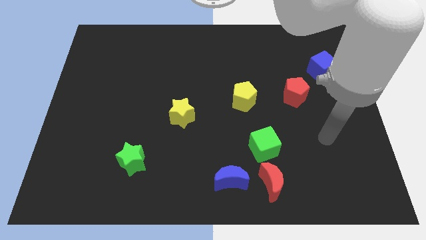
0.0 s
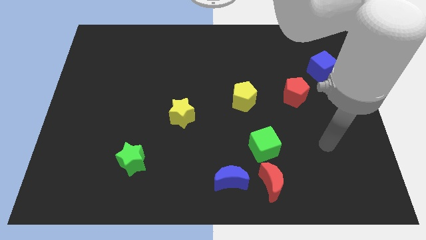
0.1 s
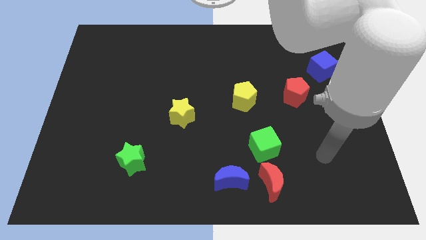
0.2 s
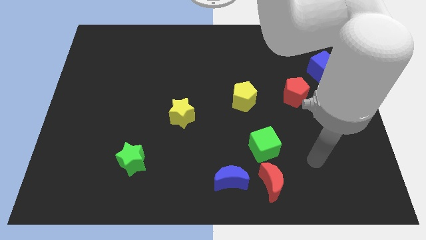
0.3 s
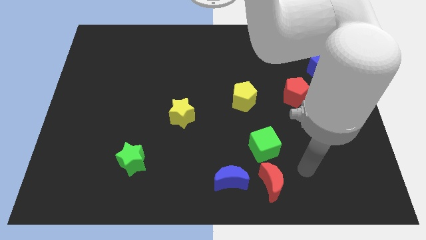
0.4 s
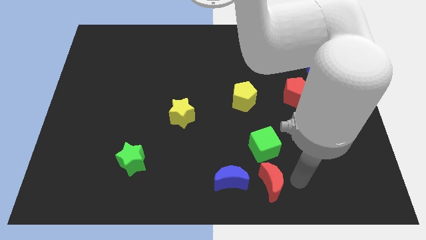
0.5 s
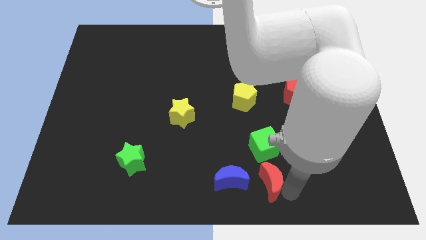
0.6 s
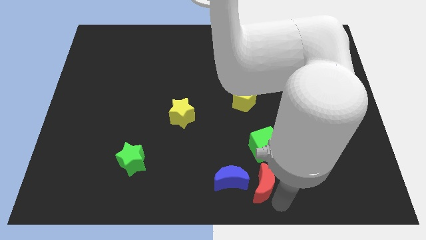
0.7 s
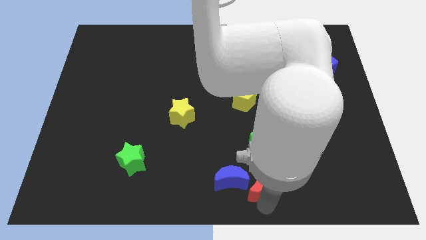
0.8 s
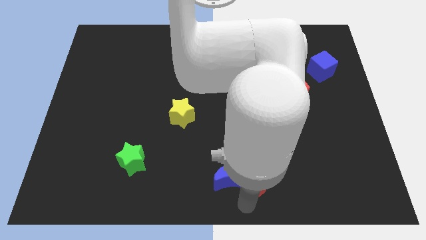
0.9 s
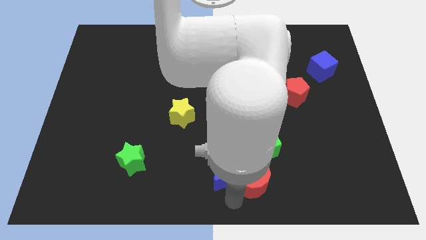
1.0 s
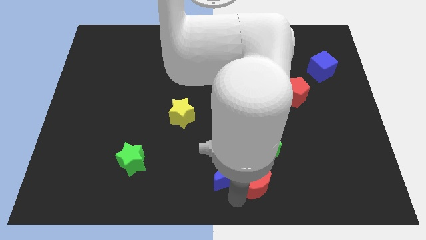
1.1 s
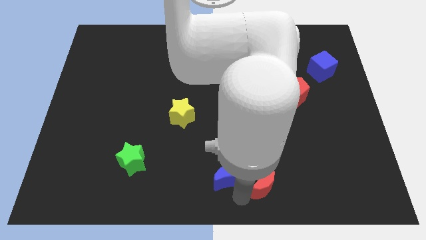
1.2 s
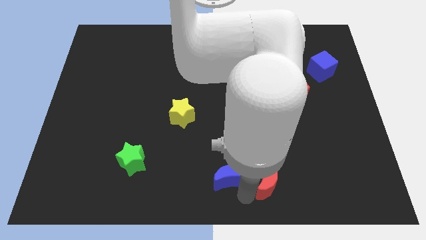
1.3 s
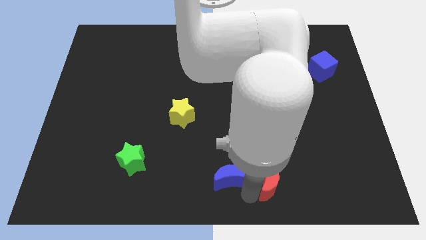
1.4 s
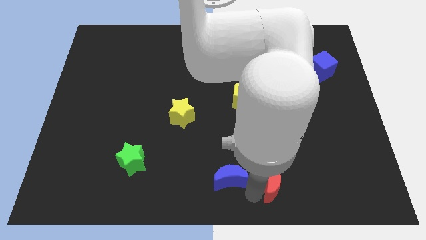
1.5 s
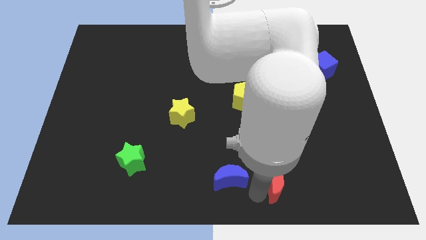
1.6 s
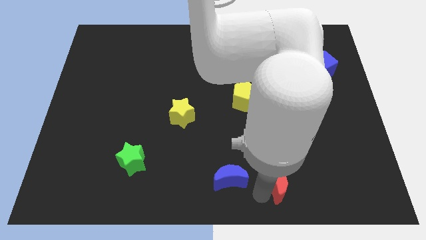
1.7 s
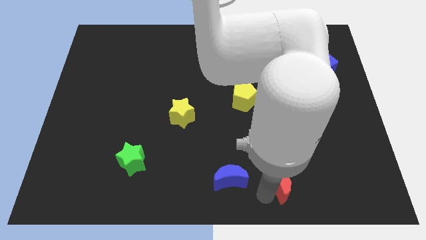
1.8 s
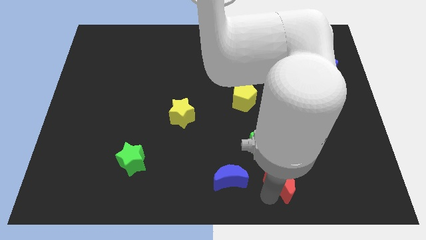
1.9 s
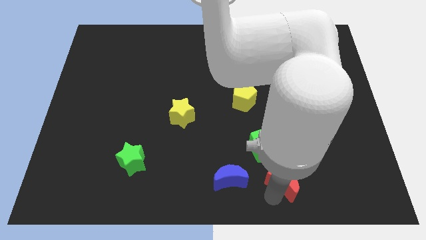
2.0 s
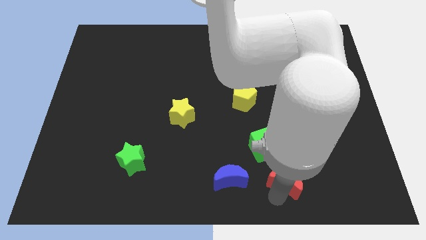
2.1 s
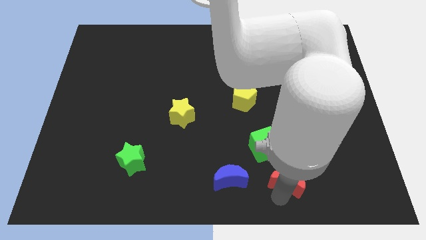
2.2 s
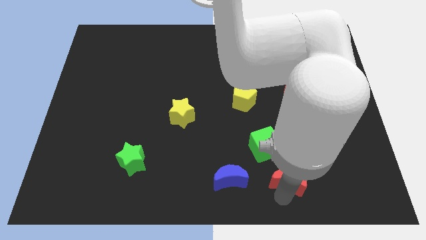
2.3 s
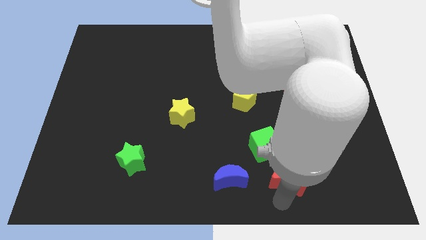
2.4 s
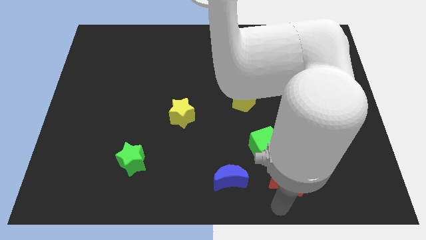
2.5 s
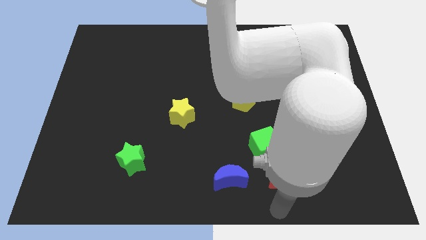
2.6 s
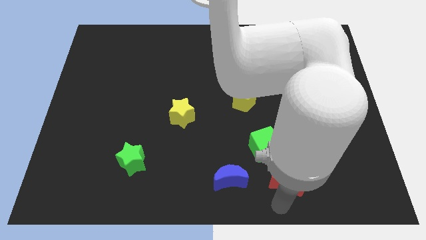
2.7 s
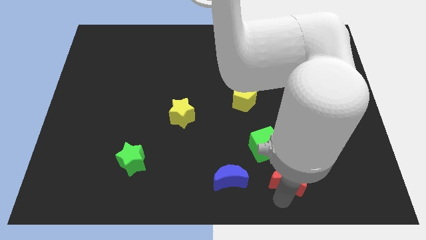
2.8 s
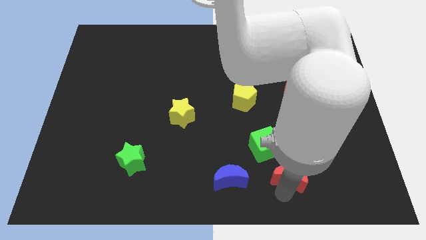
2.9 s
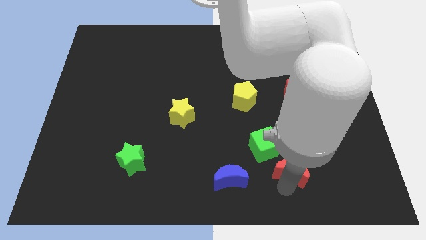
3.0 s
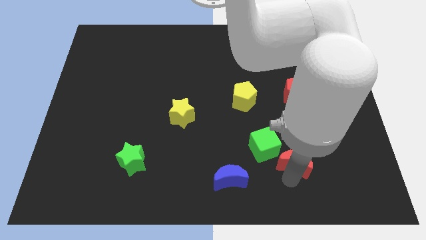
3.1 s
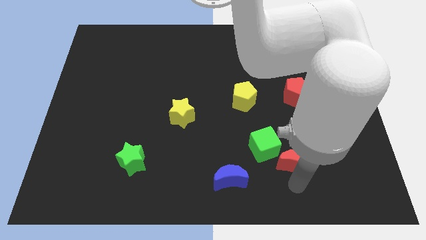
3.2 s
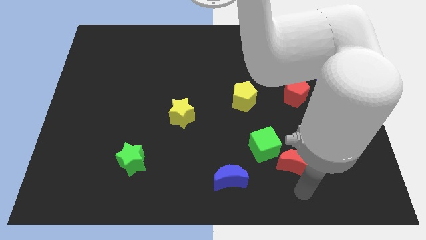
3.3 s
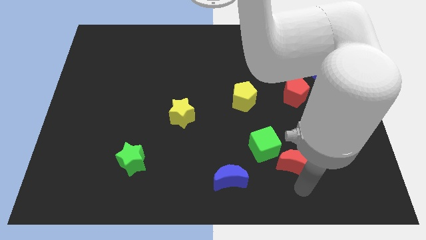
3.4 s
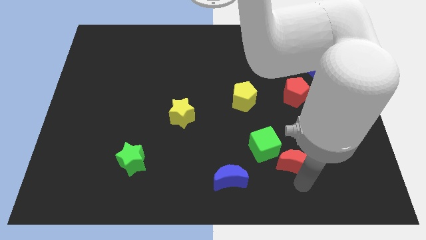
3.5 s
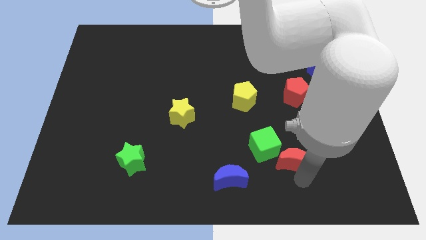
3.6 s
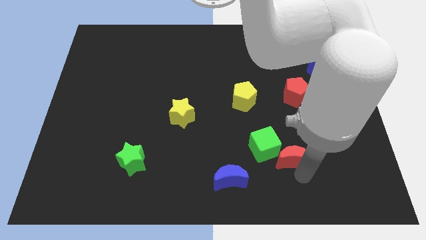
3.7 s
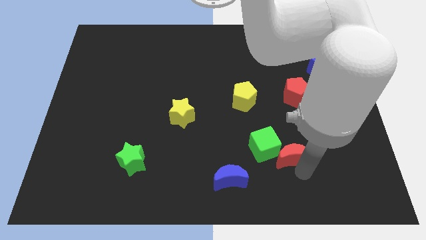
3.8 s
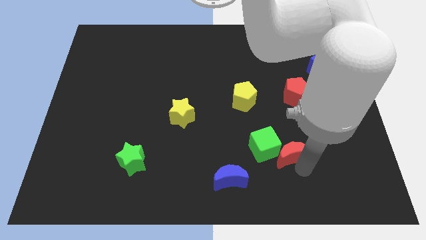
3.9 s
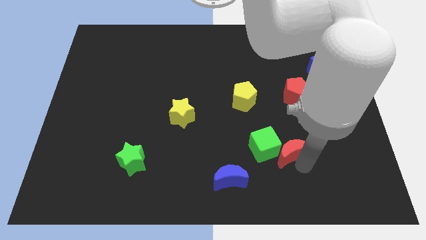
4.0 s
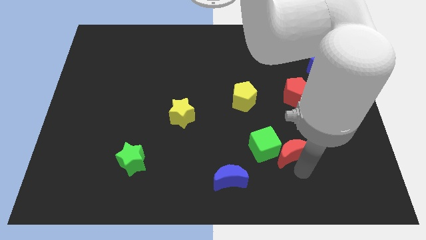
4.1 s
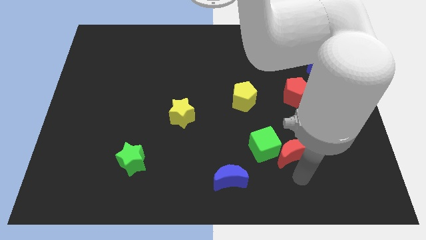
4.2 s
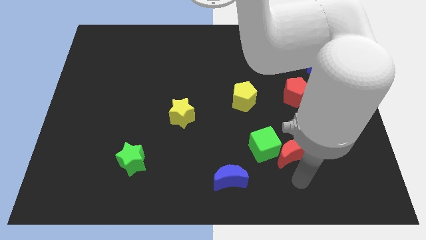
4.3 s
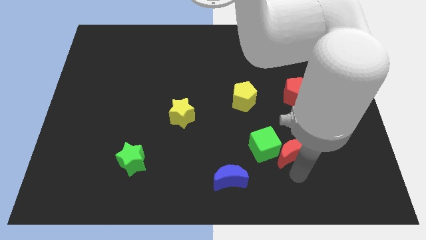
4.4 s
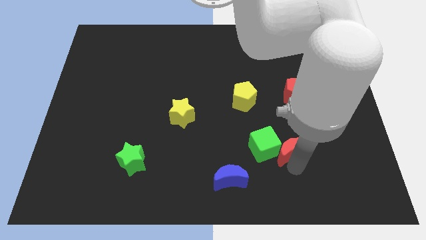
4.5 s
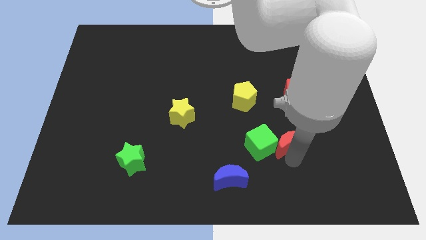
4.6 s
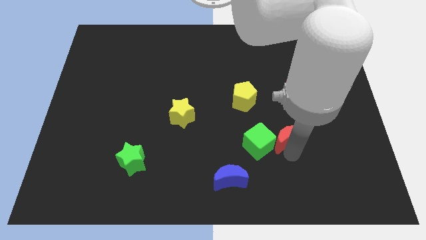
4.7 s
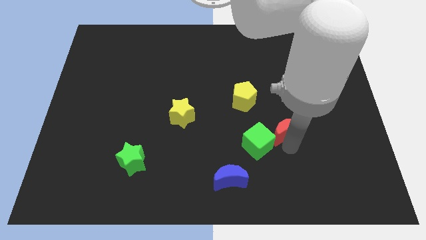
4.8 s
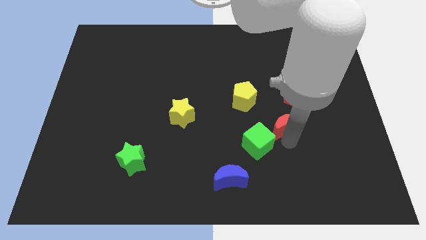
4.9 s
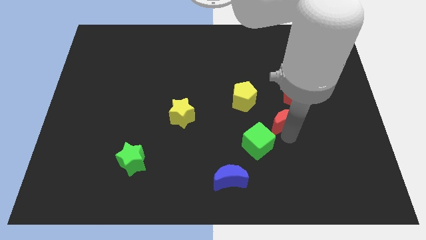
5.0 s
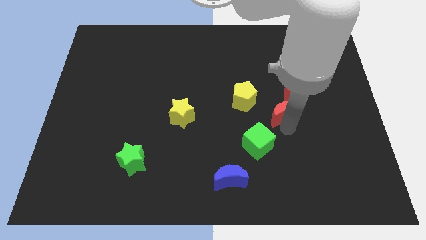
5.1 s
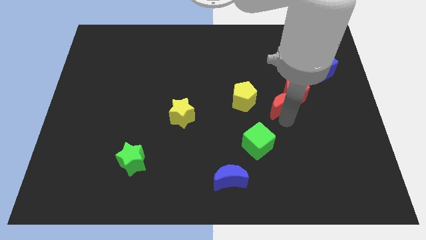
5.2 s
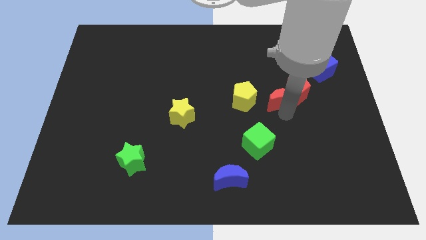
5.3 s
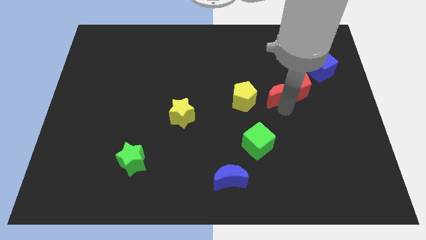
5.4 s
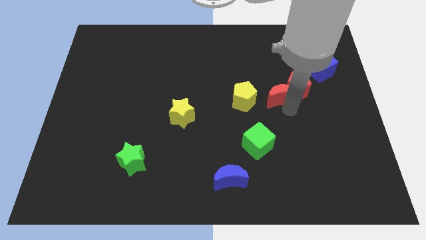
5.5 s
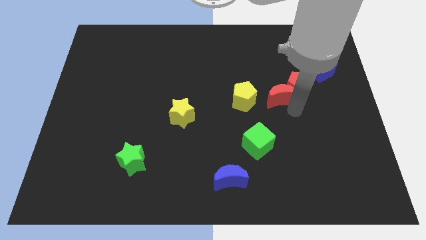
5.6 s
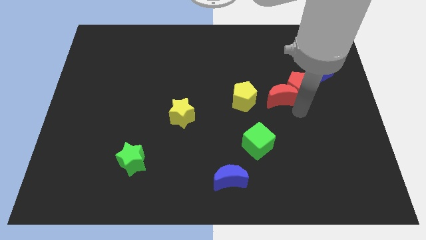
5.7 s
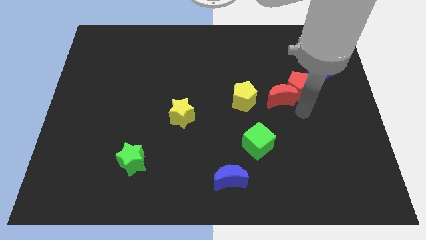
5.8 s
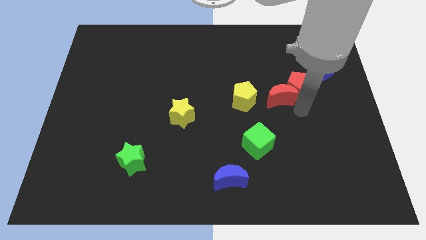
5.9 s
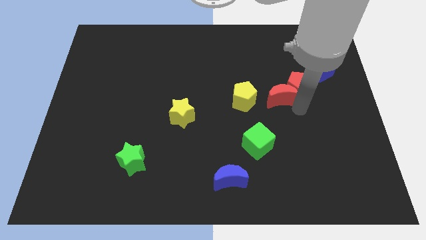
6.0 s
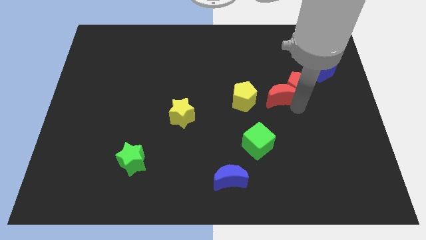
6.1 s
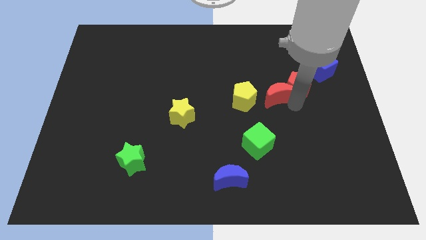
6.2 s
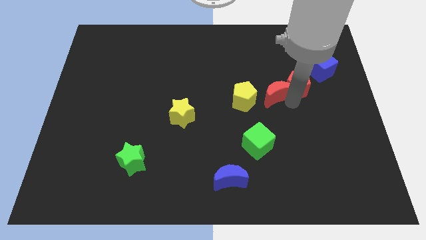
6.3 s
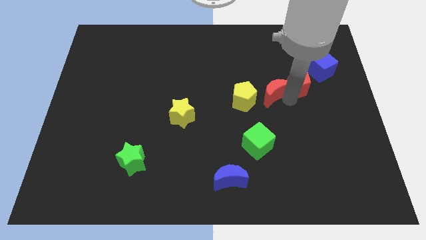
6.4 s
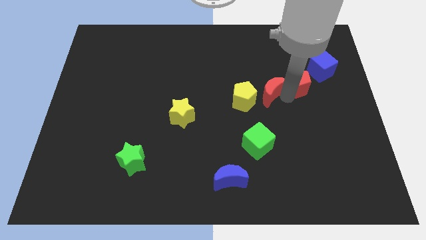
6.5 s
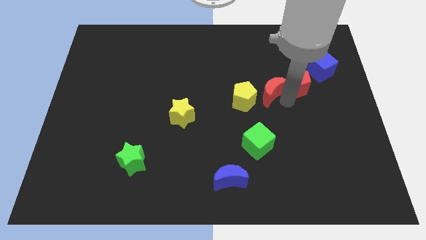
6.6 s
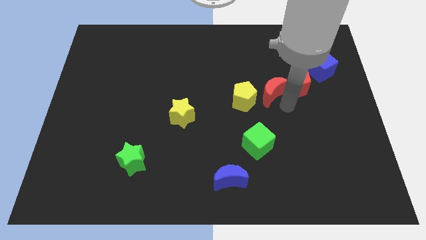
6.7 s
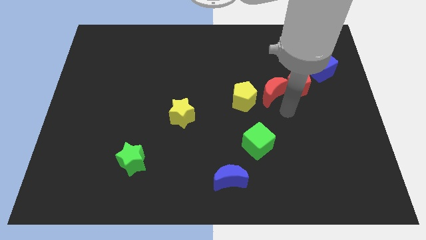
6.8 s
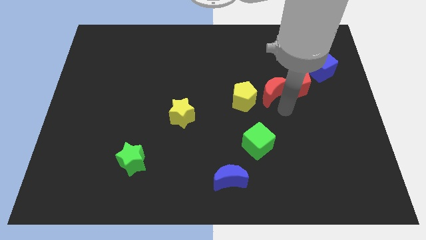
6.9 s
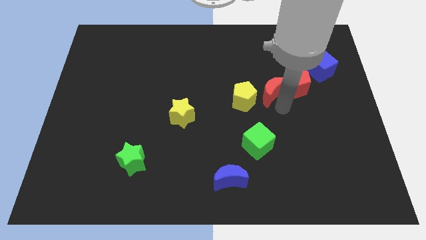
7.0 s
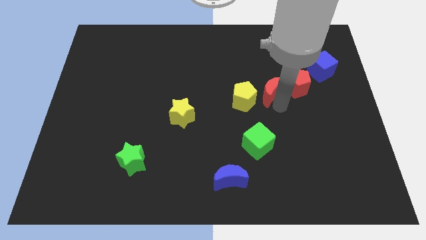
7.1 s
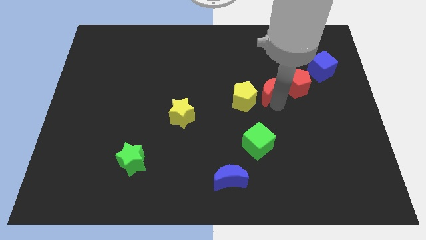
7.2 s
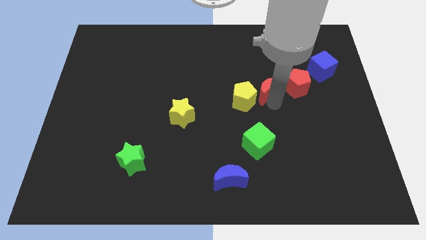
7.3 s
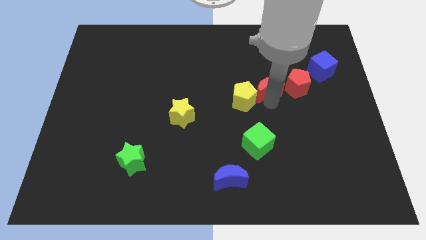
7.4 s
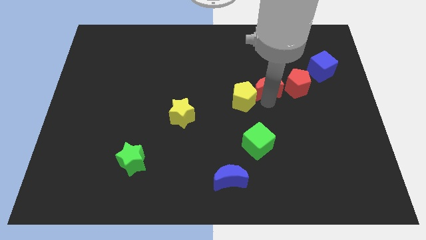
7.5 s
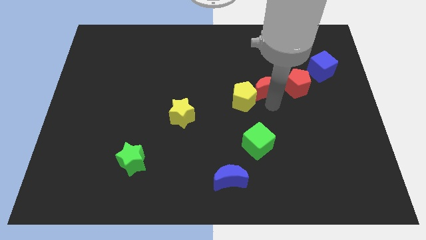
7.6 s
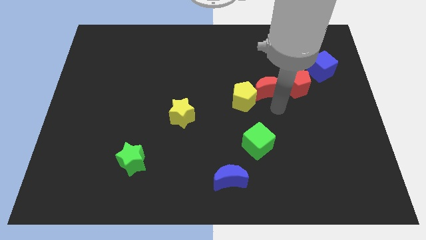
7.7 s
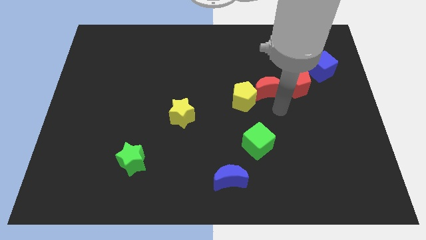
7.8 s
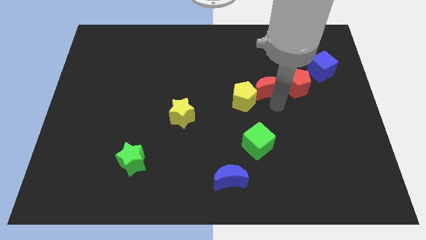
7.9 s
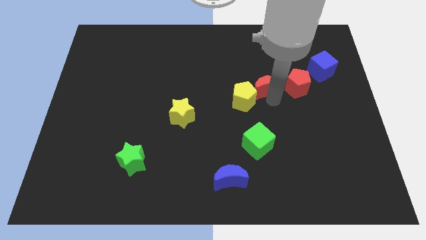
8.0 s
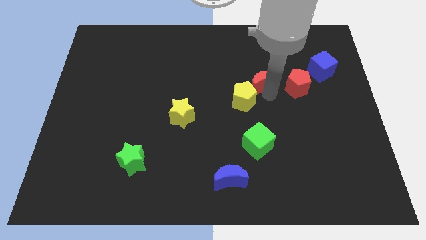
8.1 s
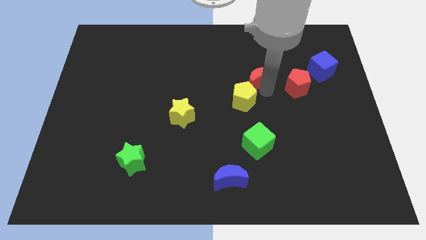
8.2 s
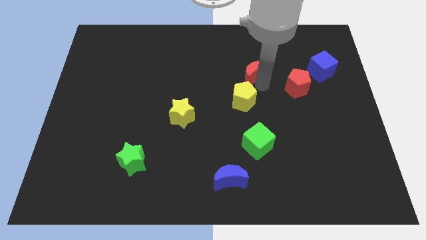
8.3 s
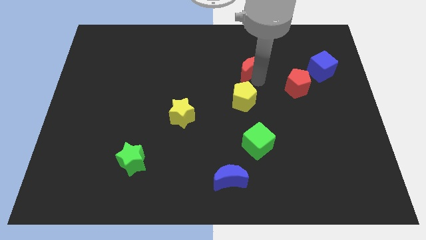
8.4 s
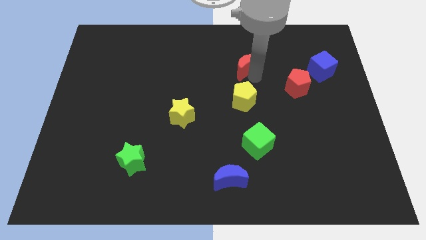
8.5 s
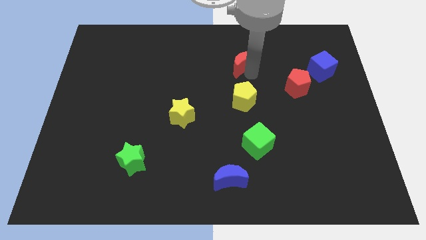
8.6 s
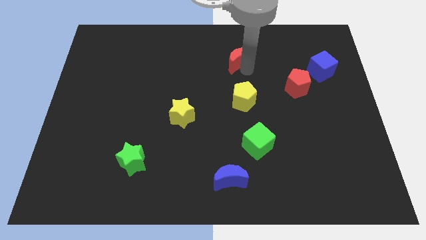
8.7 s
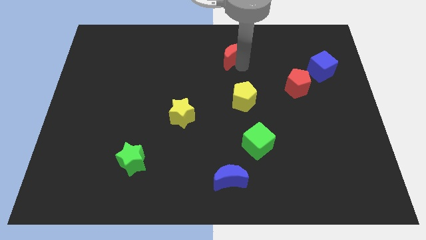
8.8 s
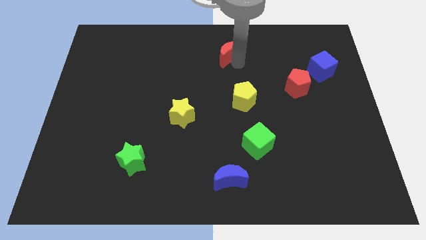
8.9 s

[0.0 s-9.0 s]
slide the red moon to the top
